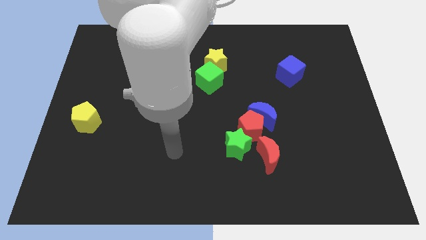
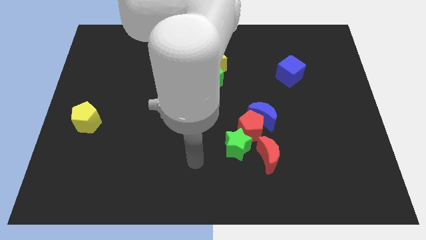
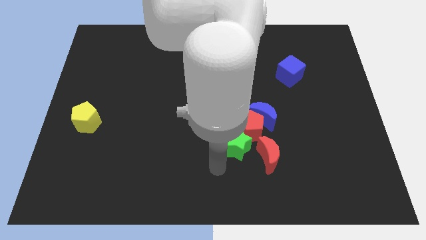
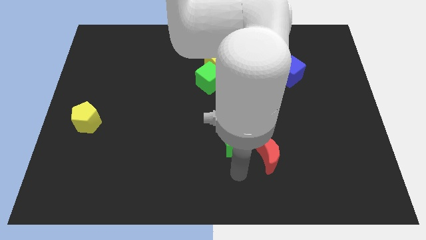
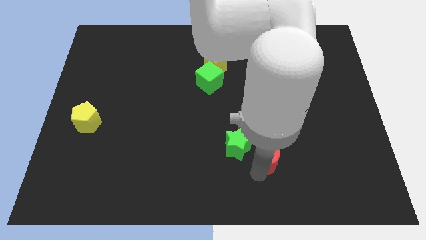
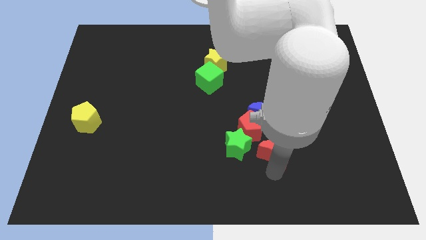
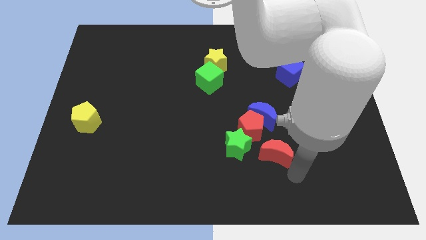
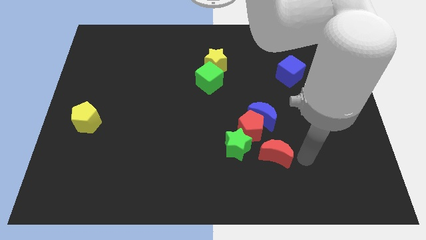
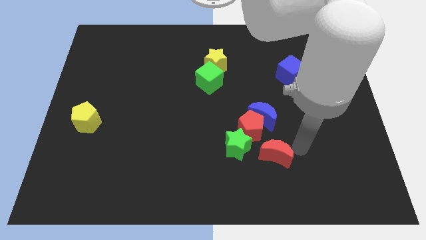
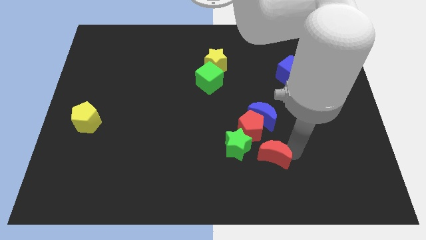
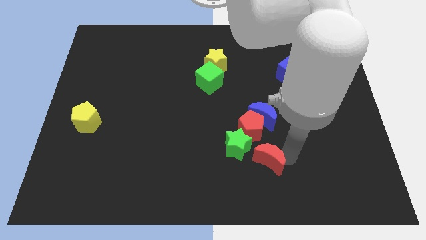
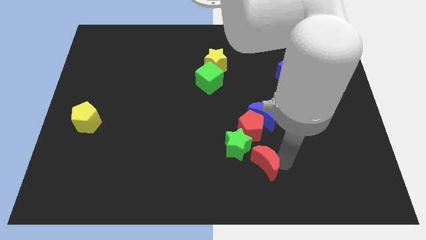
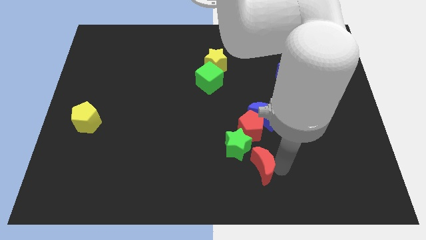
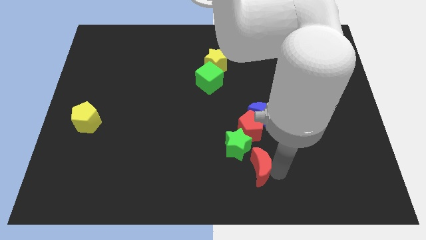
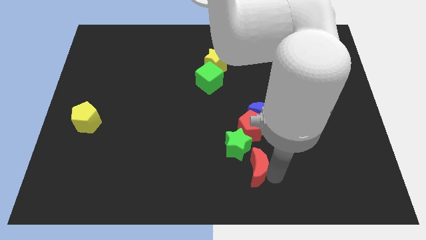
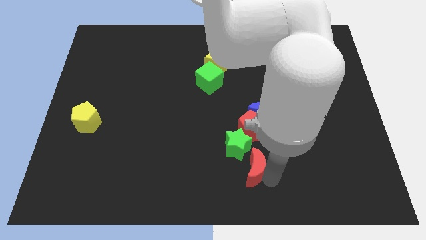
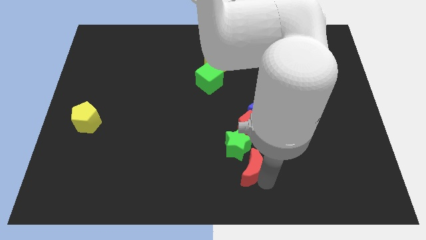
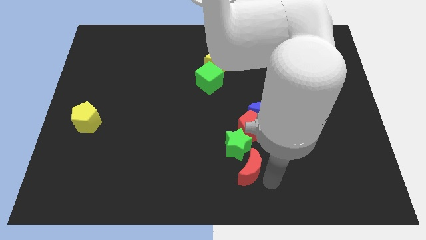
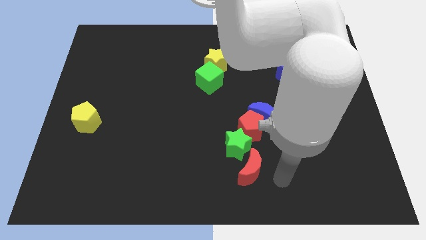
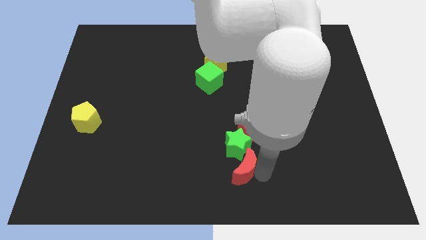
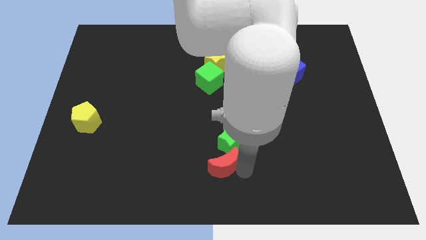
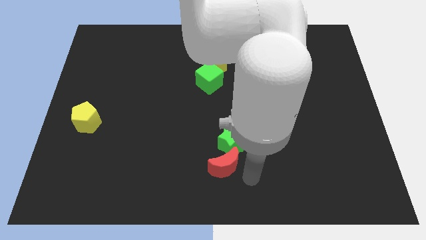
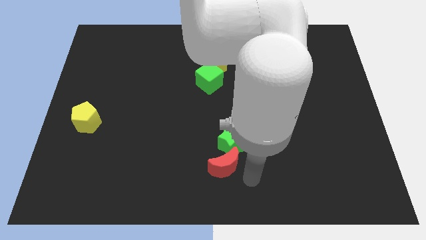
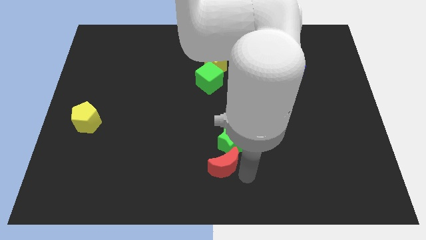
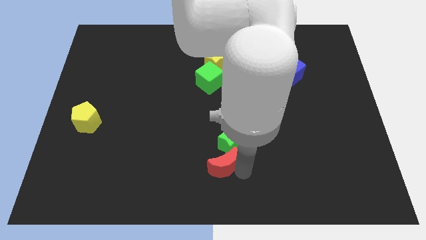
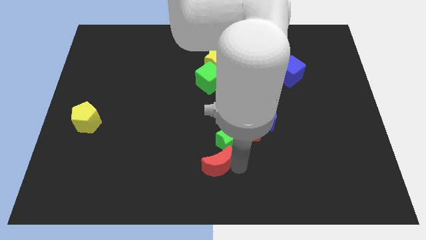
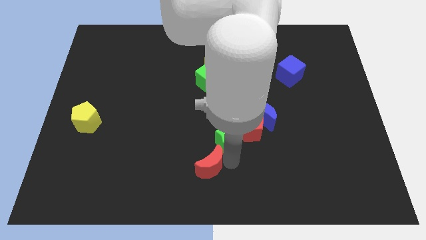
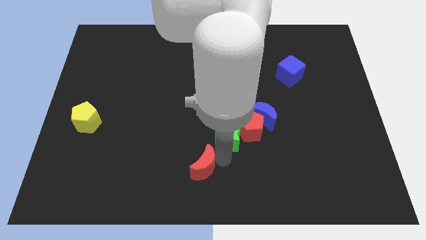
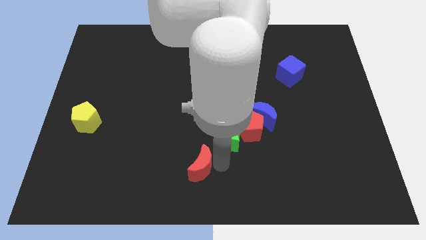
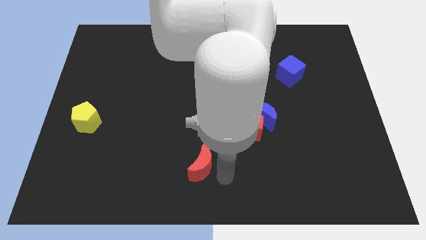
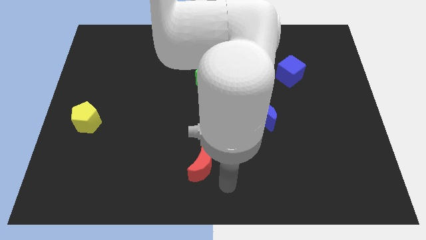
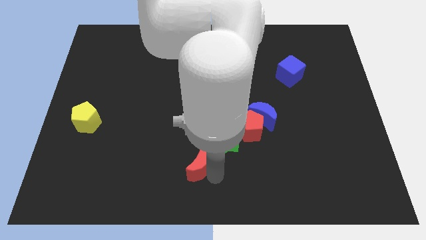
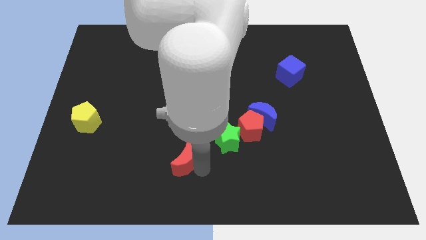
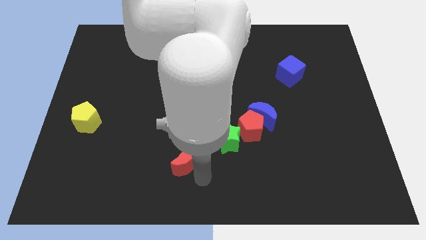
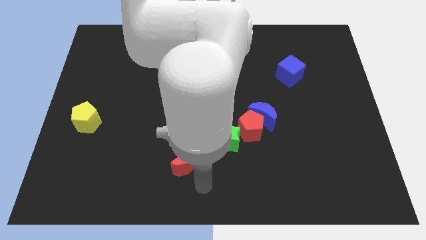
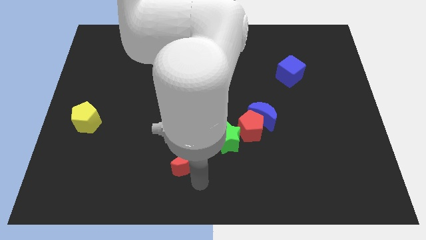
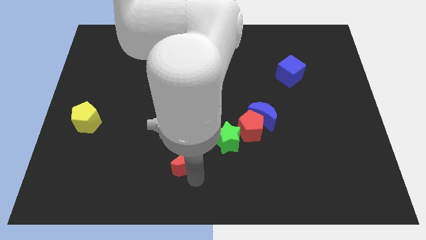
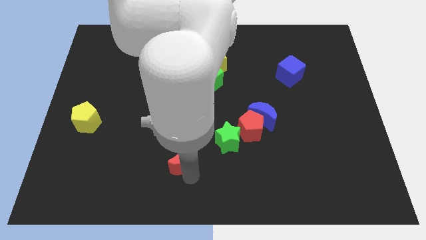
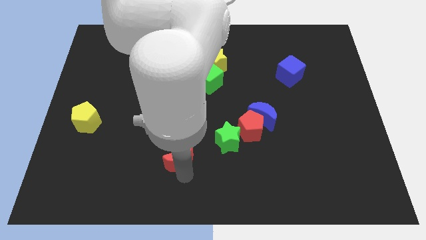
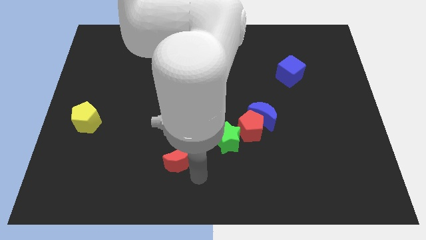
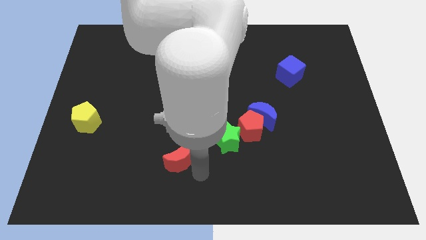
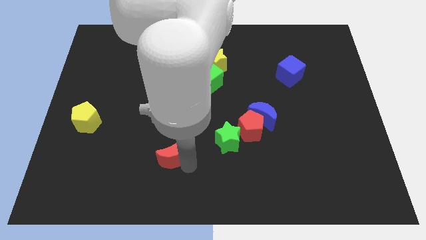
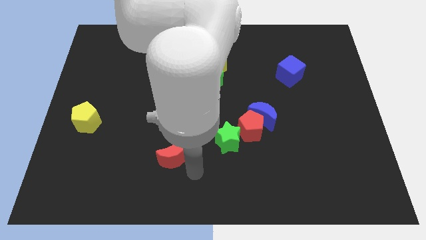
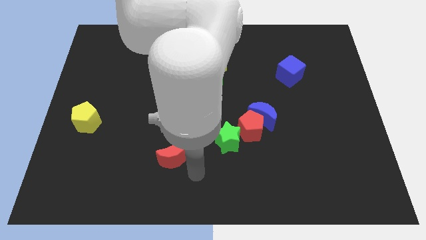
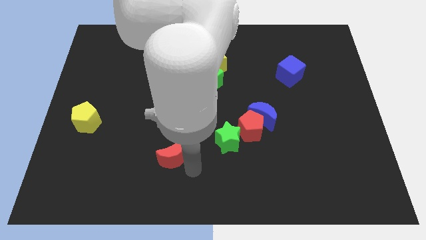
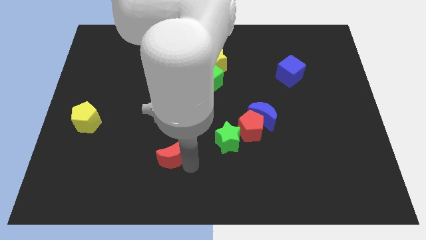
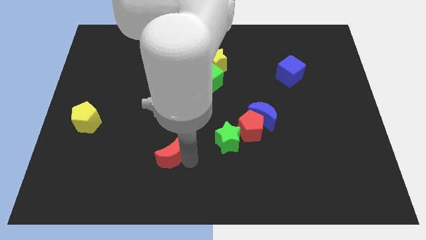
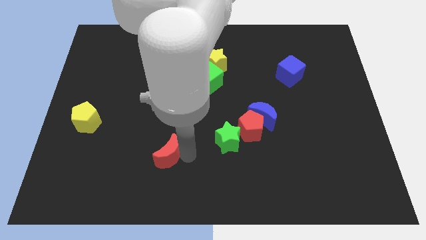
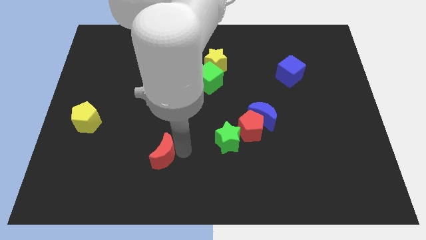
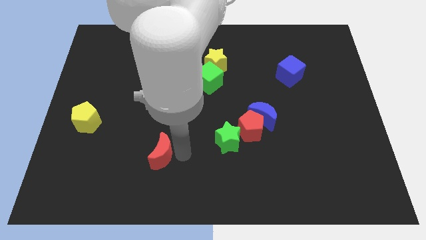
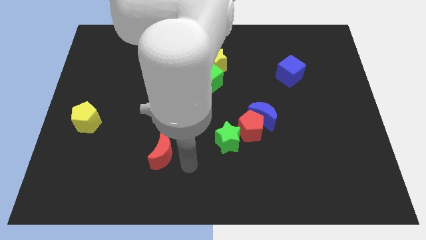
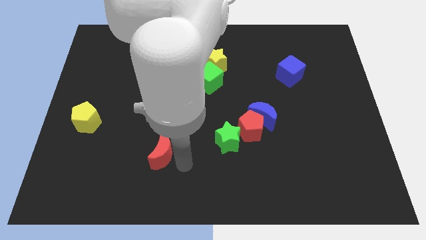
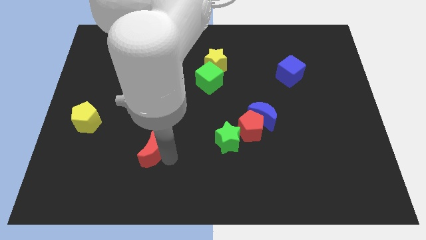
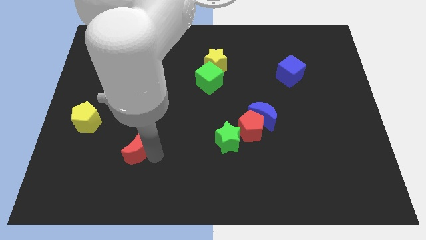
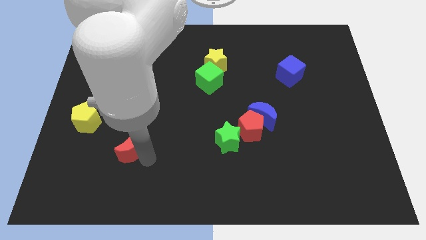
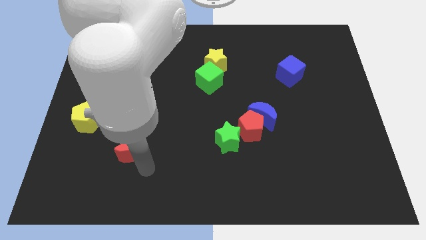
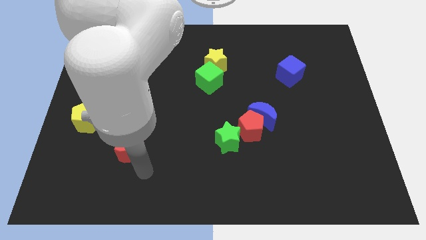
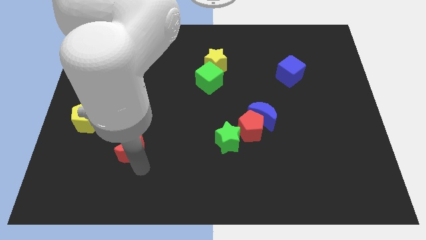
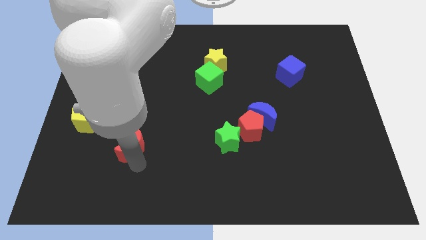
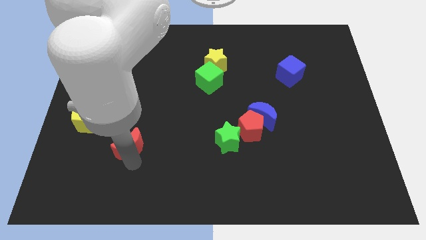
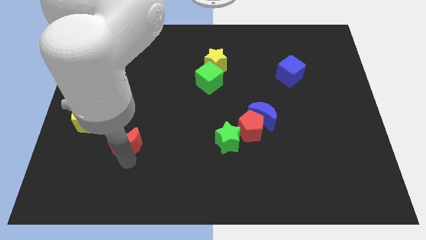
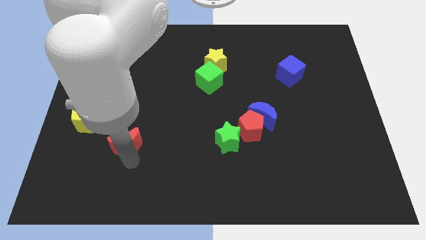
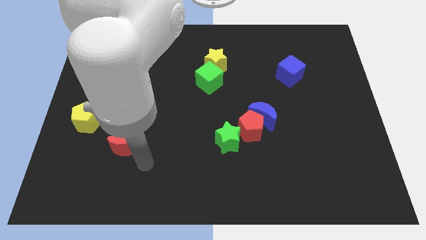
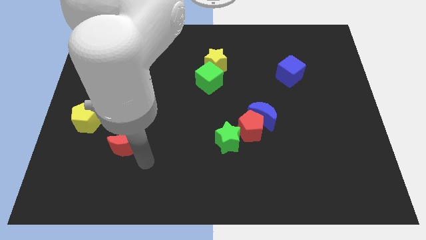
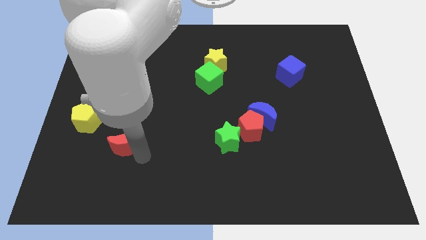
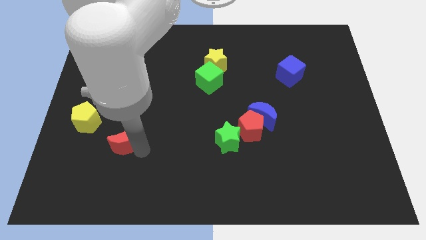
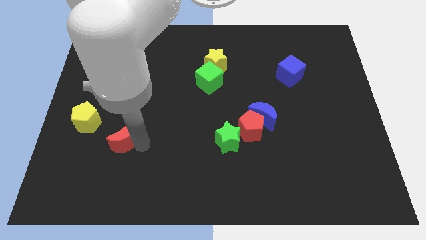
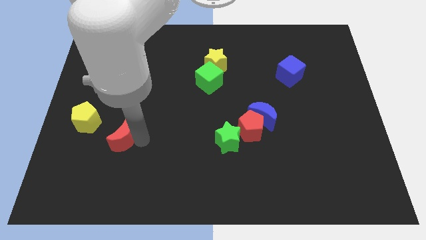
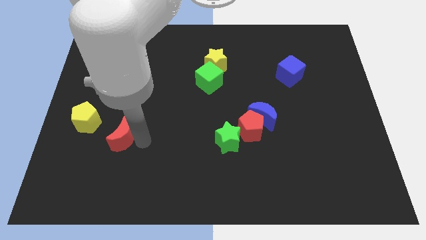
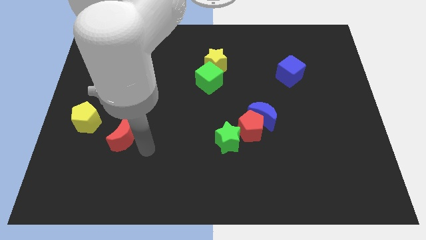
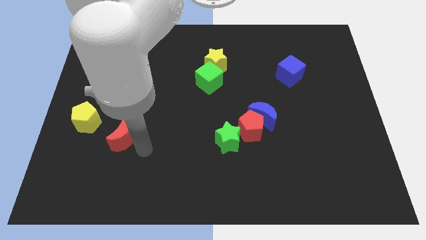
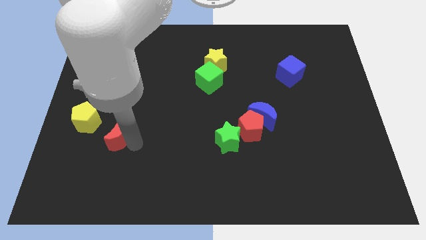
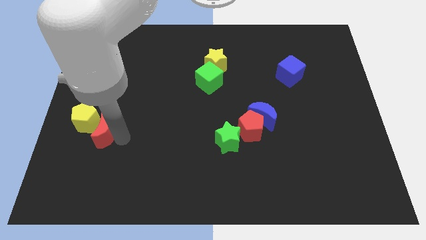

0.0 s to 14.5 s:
put the red moon next to the yellow pentagon
